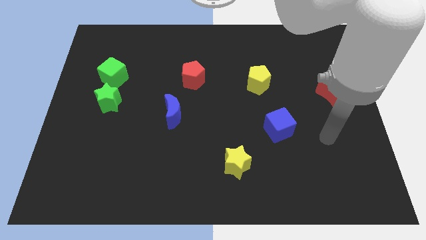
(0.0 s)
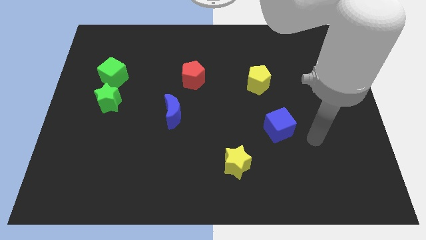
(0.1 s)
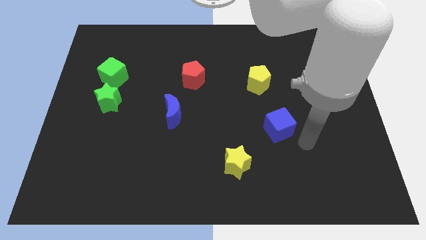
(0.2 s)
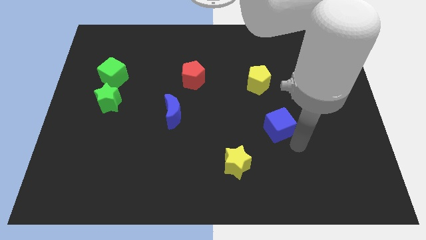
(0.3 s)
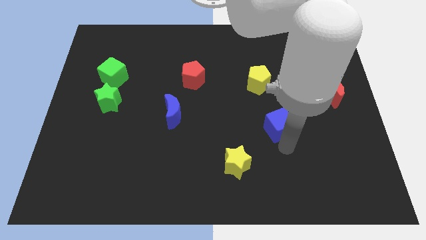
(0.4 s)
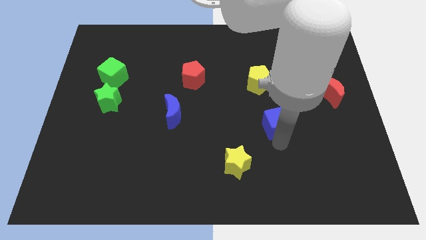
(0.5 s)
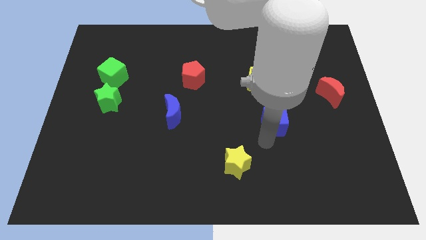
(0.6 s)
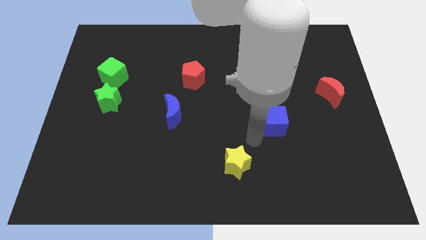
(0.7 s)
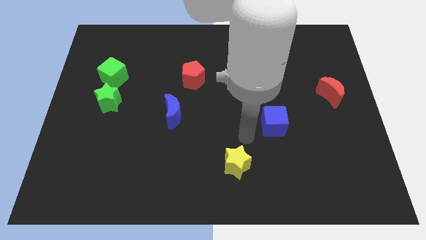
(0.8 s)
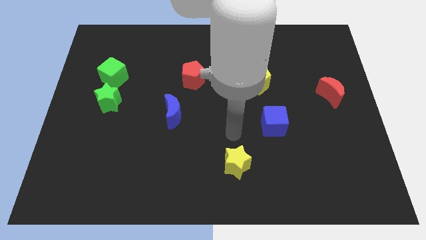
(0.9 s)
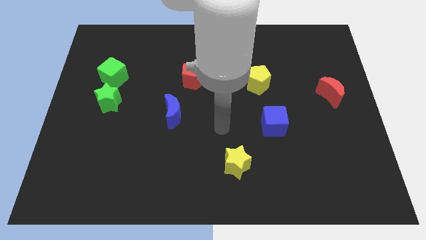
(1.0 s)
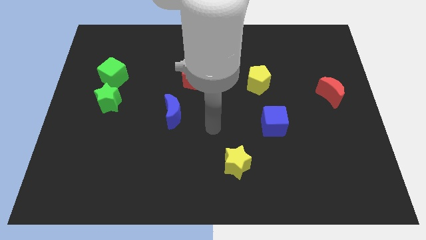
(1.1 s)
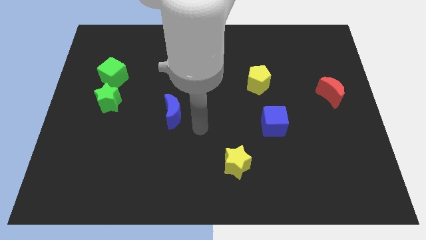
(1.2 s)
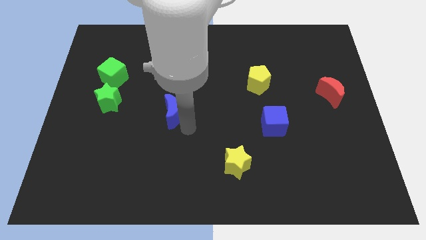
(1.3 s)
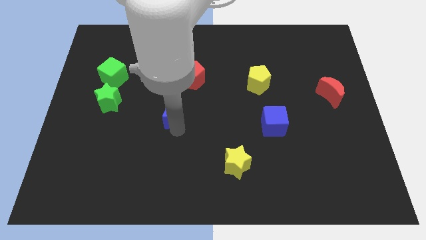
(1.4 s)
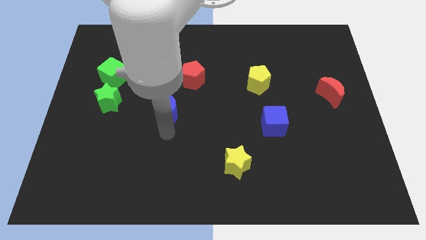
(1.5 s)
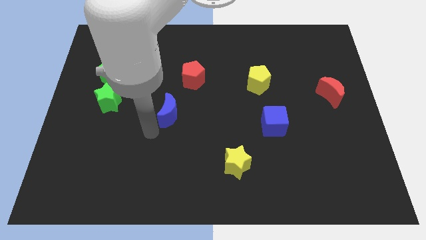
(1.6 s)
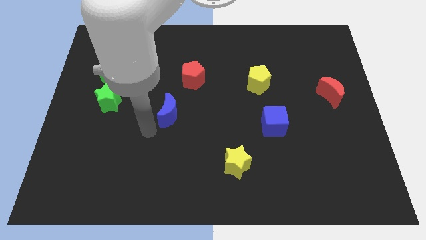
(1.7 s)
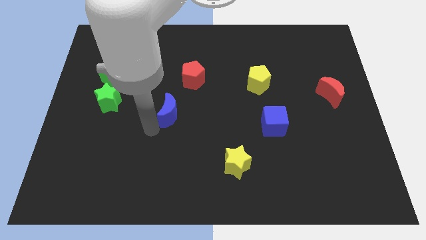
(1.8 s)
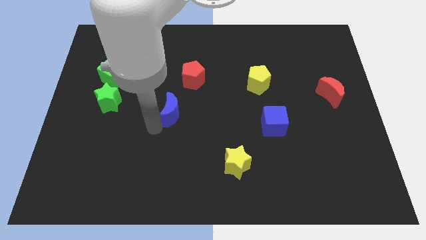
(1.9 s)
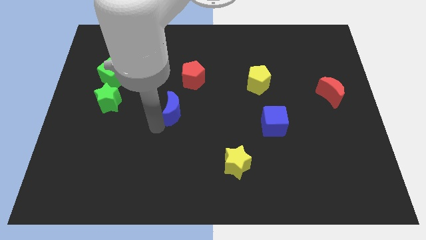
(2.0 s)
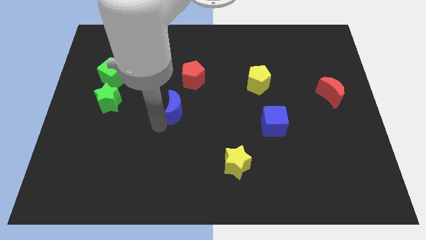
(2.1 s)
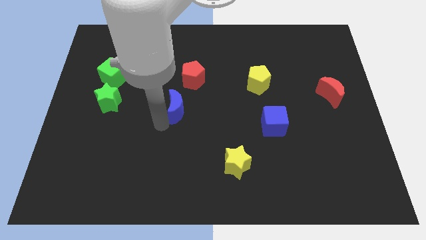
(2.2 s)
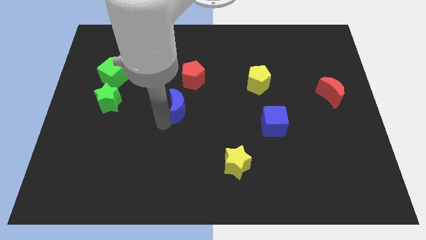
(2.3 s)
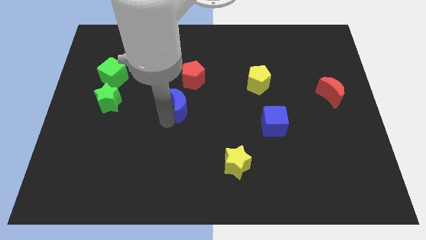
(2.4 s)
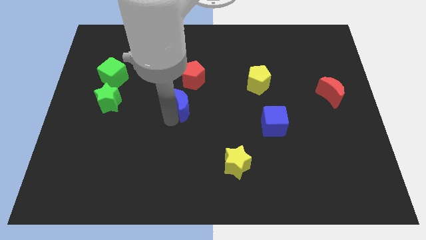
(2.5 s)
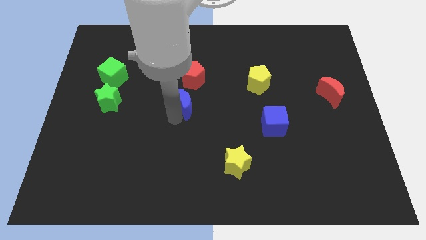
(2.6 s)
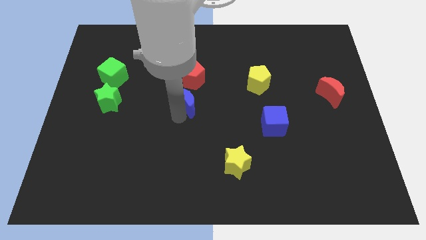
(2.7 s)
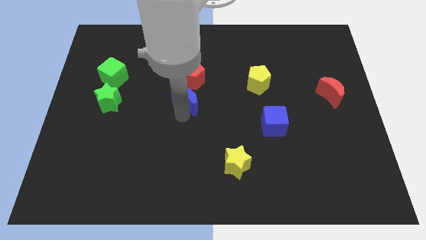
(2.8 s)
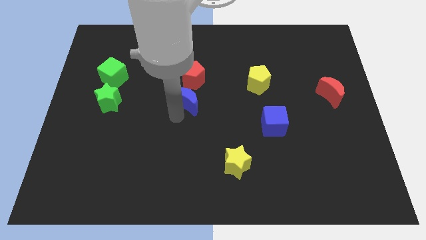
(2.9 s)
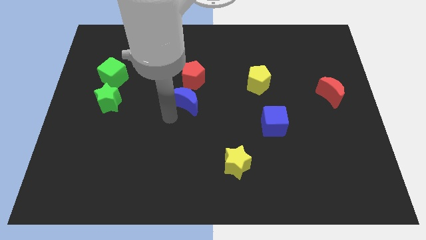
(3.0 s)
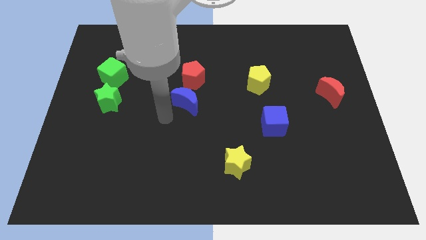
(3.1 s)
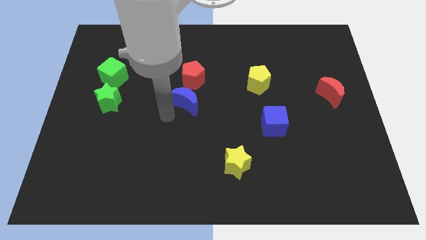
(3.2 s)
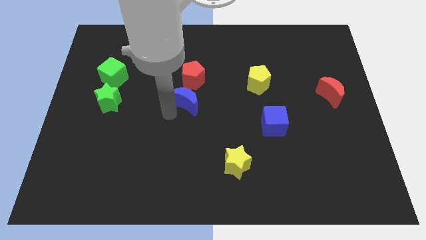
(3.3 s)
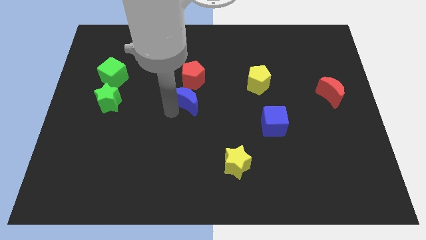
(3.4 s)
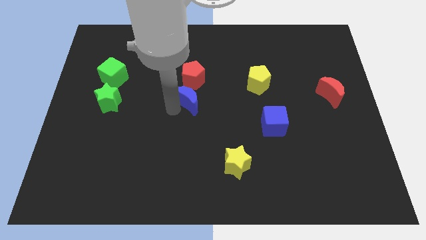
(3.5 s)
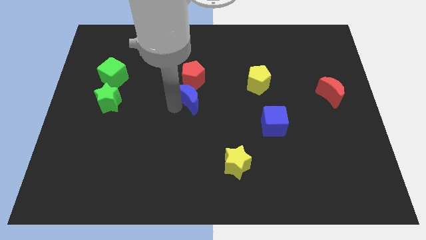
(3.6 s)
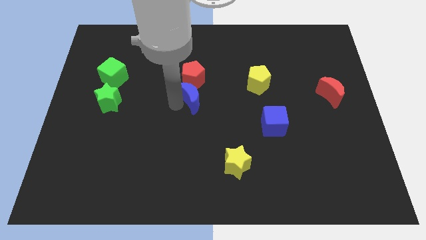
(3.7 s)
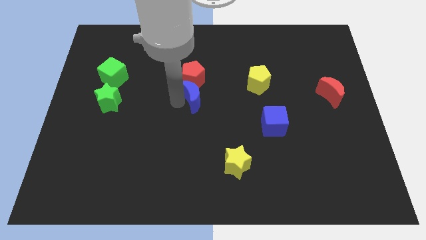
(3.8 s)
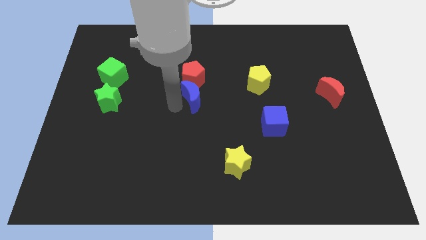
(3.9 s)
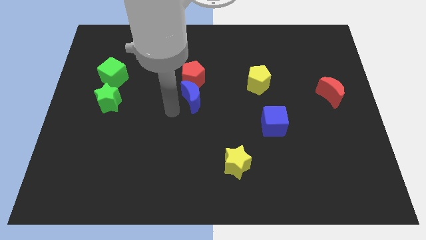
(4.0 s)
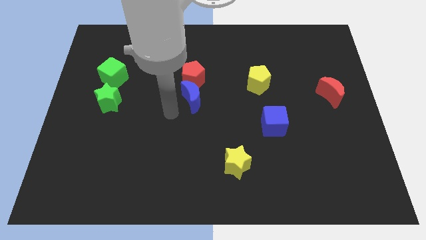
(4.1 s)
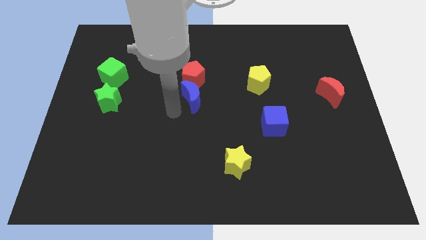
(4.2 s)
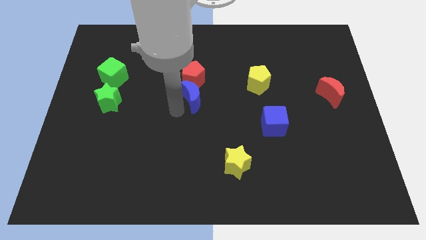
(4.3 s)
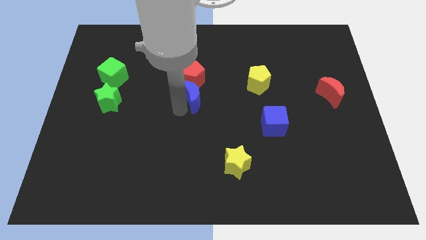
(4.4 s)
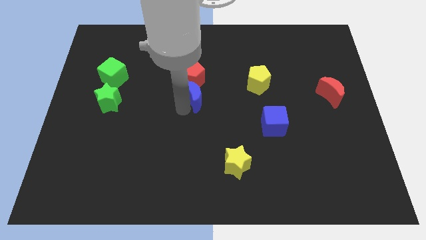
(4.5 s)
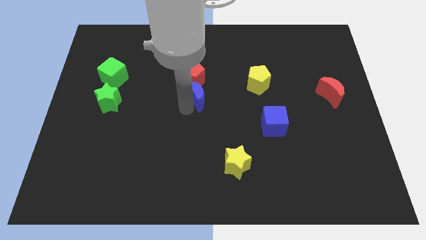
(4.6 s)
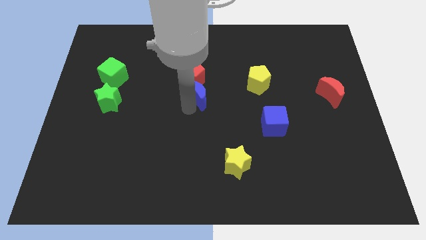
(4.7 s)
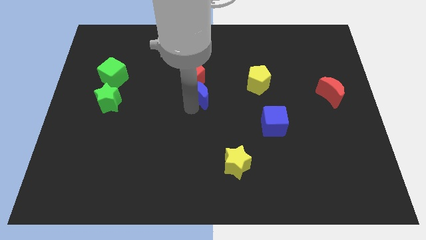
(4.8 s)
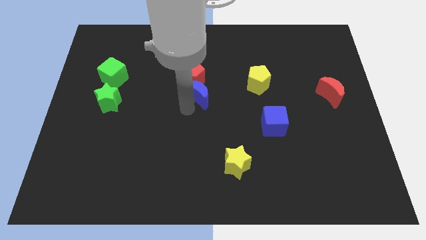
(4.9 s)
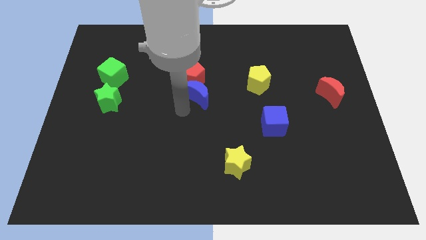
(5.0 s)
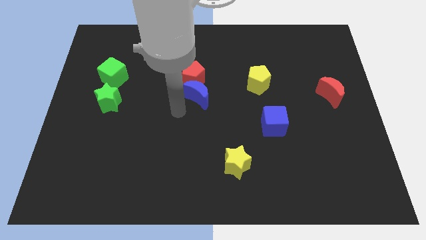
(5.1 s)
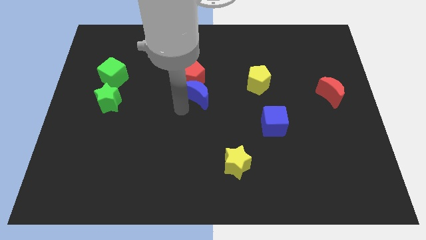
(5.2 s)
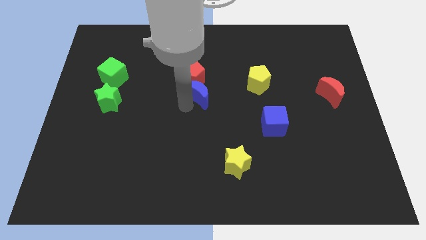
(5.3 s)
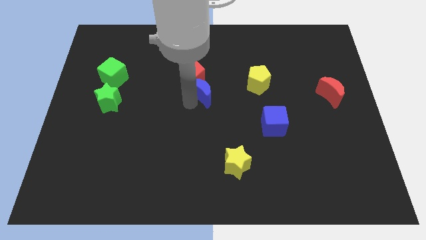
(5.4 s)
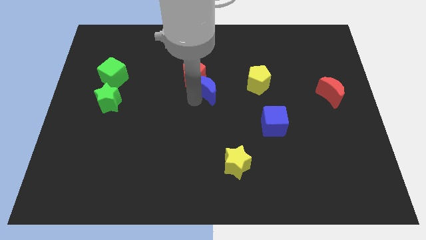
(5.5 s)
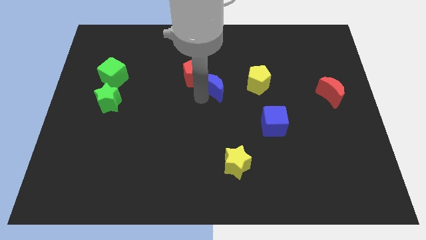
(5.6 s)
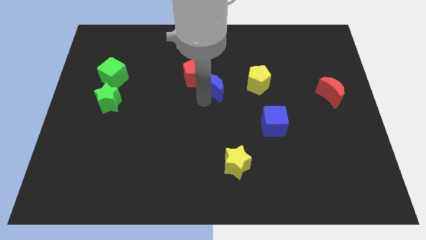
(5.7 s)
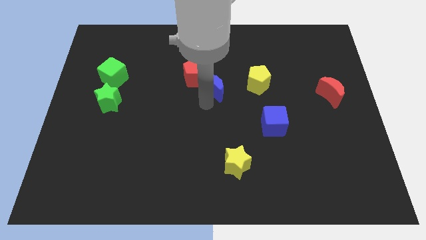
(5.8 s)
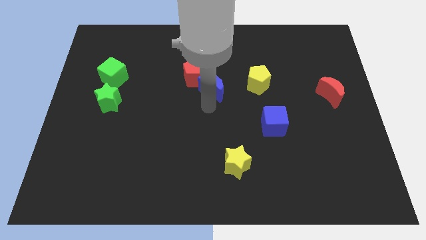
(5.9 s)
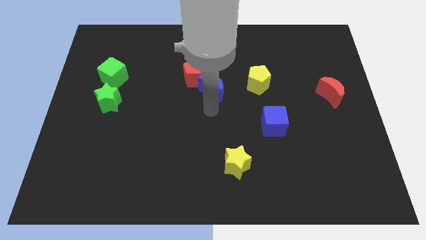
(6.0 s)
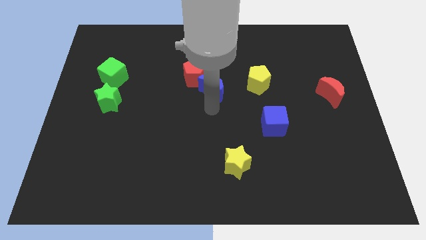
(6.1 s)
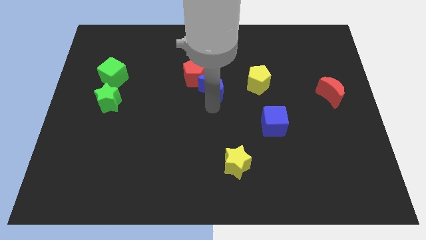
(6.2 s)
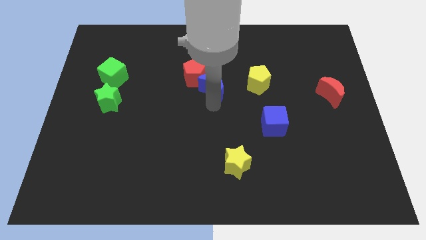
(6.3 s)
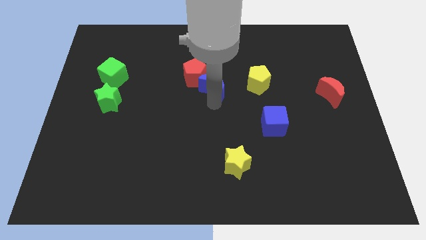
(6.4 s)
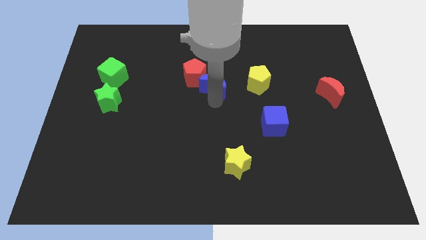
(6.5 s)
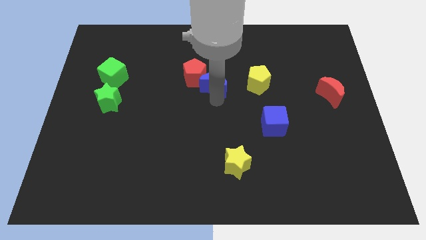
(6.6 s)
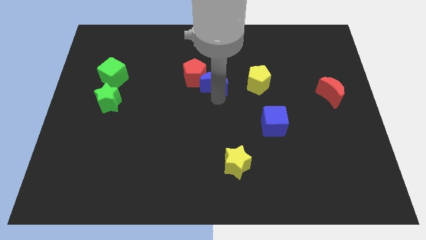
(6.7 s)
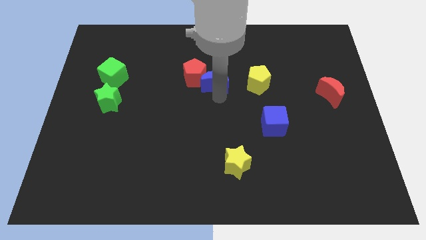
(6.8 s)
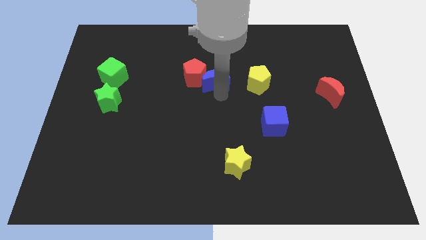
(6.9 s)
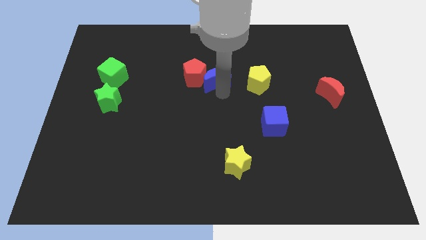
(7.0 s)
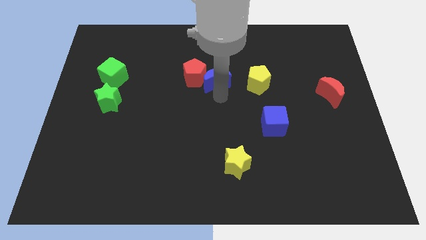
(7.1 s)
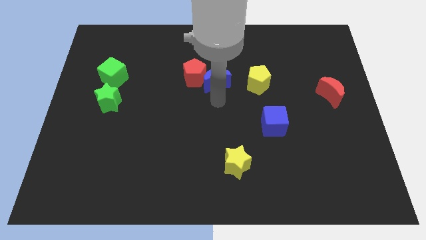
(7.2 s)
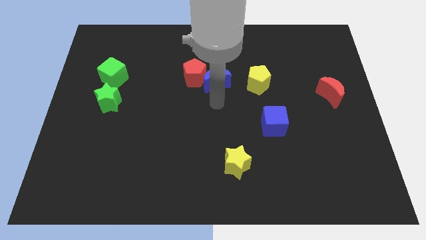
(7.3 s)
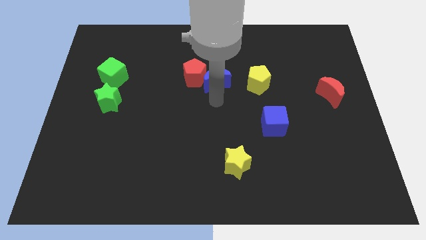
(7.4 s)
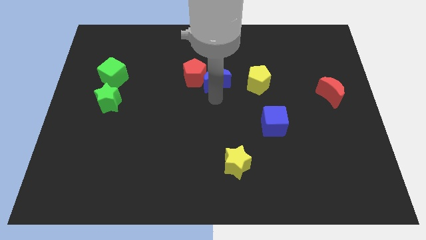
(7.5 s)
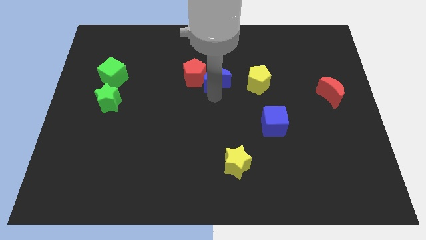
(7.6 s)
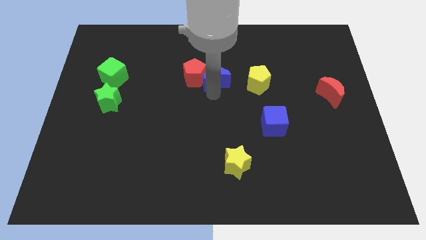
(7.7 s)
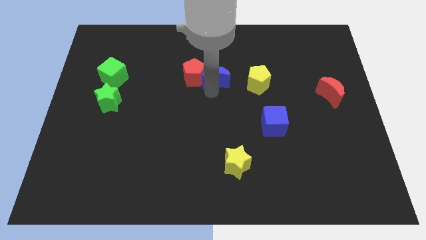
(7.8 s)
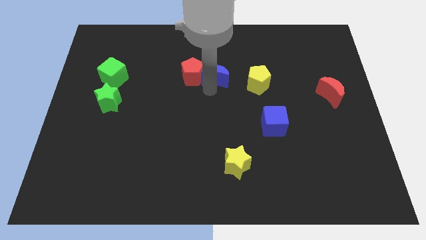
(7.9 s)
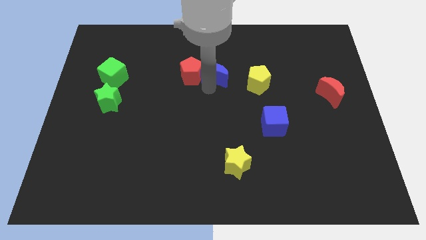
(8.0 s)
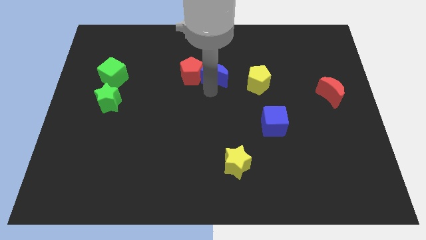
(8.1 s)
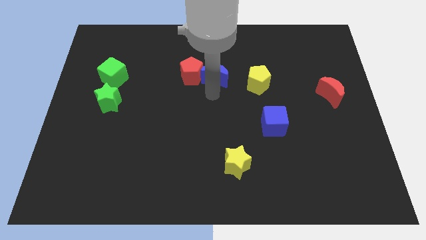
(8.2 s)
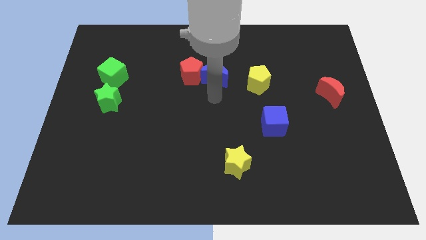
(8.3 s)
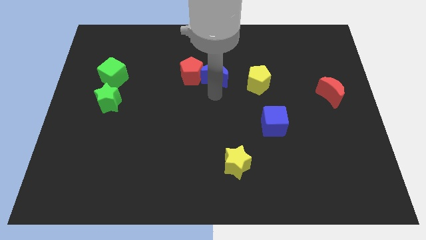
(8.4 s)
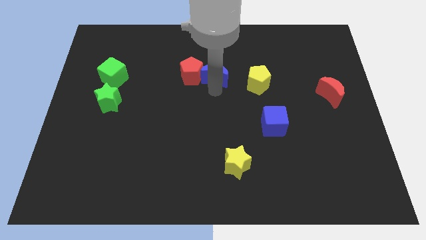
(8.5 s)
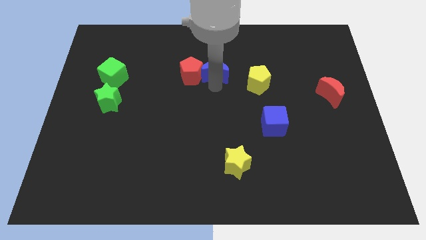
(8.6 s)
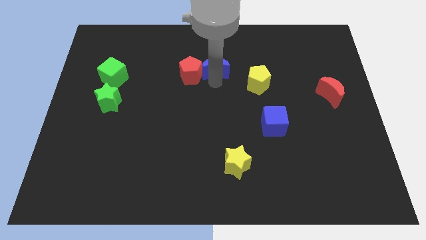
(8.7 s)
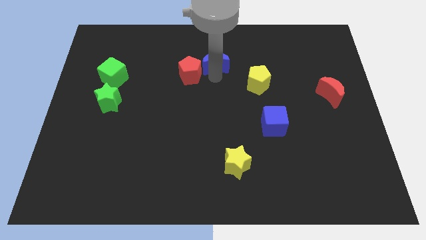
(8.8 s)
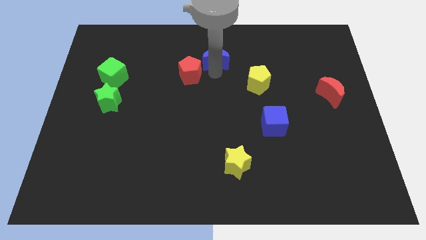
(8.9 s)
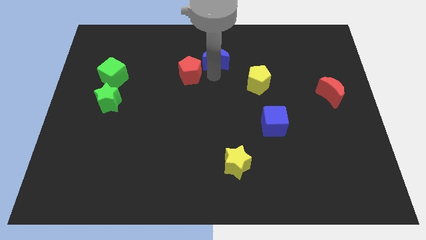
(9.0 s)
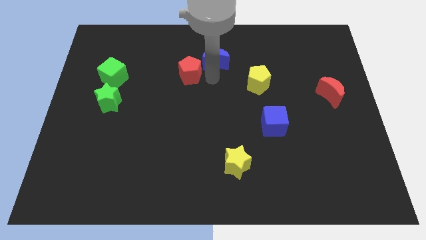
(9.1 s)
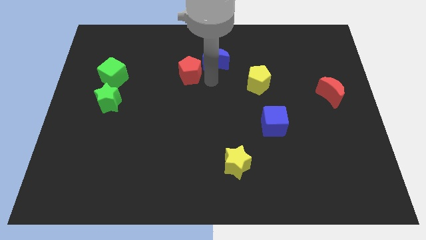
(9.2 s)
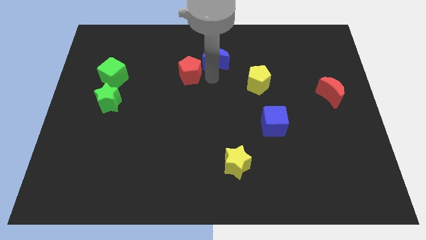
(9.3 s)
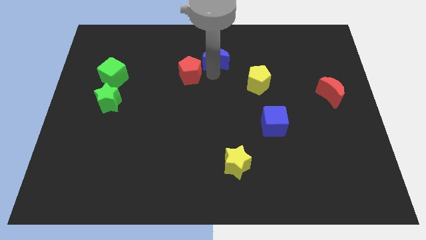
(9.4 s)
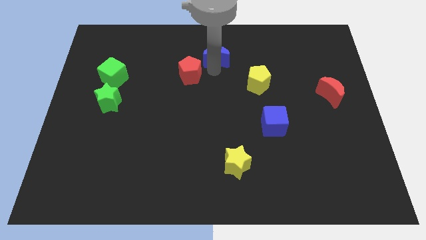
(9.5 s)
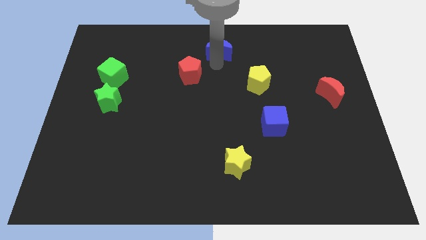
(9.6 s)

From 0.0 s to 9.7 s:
put the blue moon to the top
